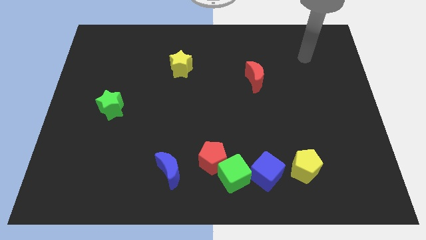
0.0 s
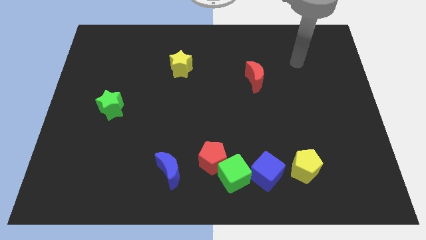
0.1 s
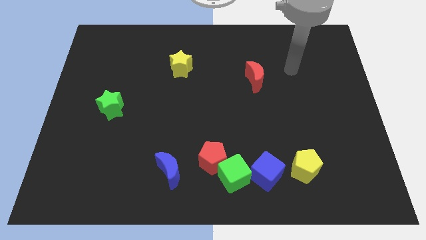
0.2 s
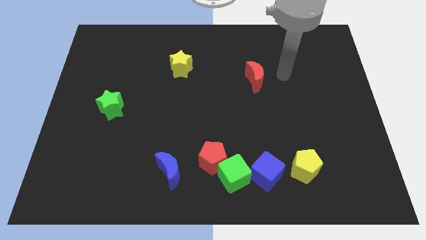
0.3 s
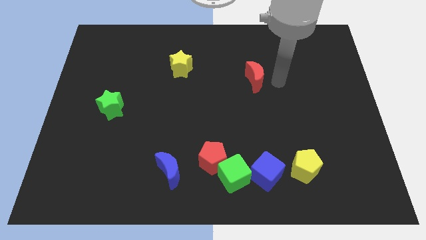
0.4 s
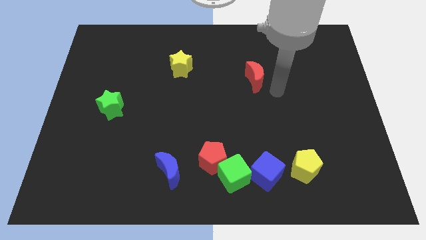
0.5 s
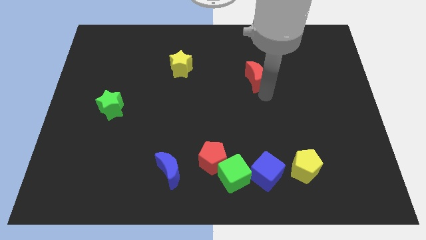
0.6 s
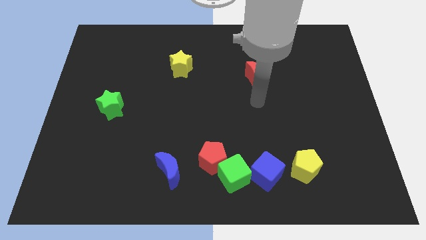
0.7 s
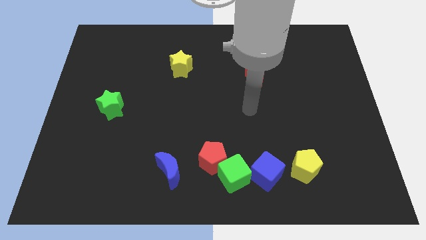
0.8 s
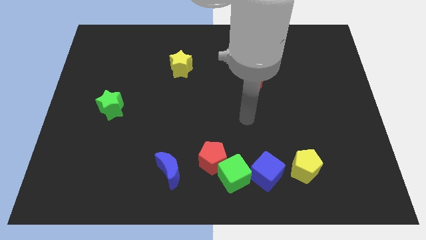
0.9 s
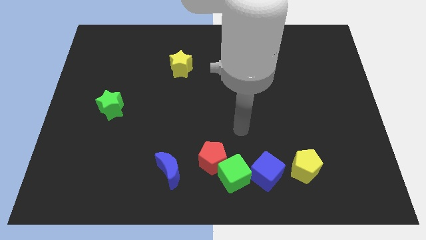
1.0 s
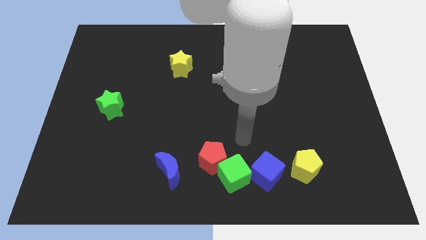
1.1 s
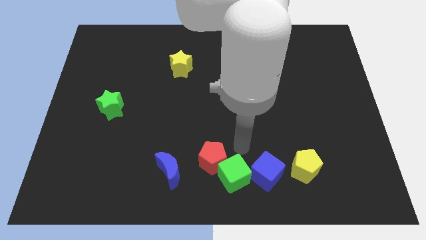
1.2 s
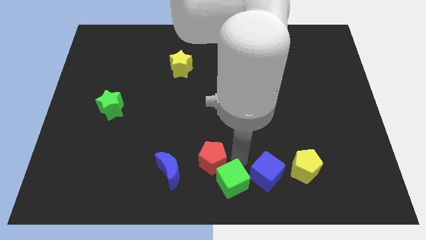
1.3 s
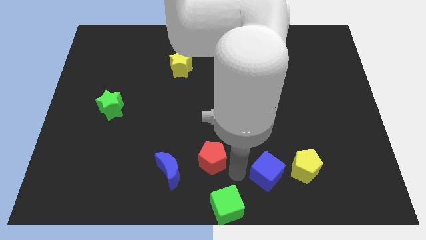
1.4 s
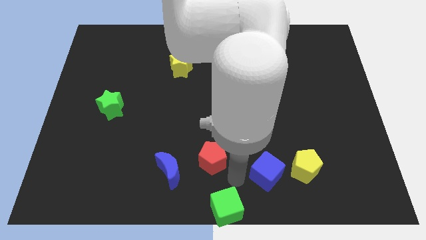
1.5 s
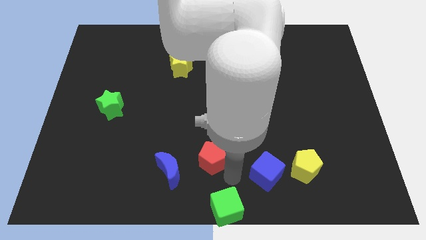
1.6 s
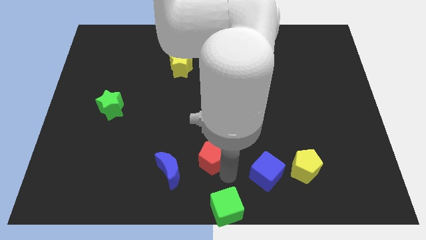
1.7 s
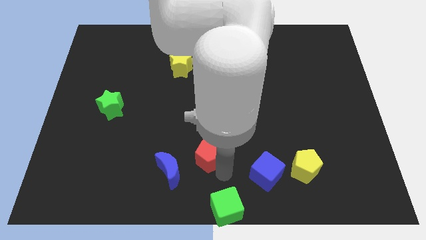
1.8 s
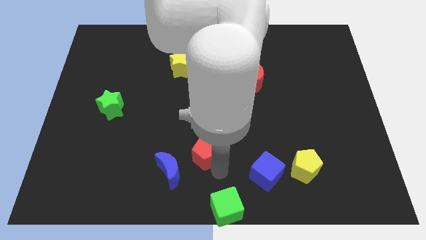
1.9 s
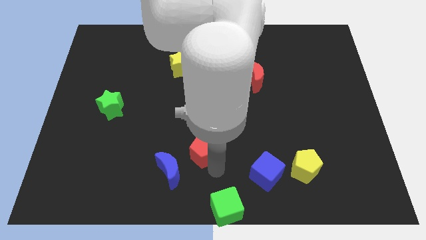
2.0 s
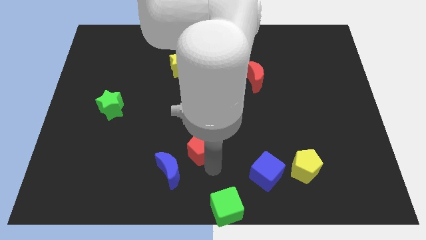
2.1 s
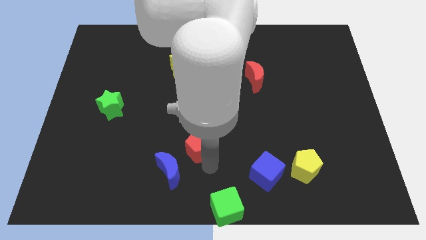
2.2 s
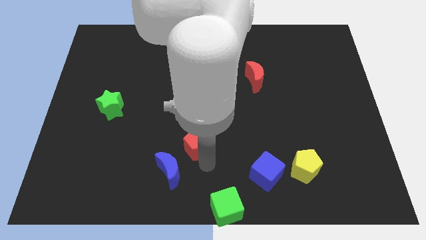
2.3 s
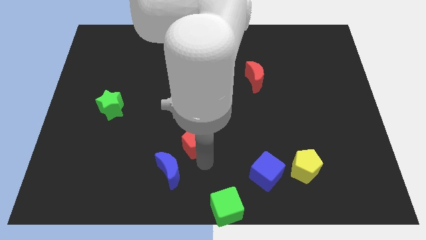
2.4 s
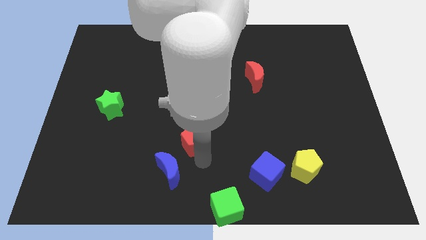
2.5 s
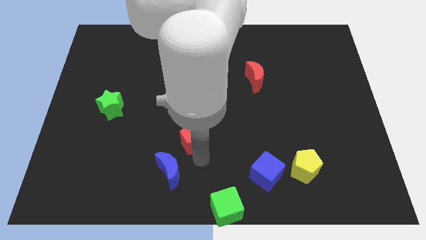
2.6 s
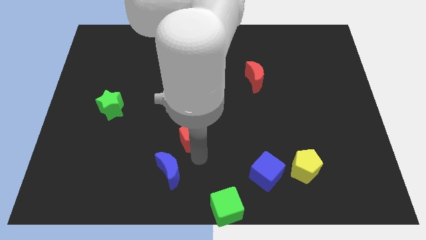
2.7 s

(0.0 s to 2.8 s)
slightly push the red pentagon upwards and then to the left

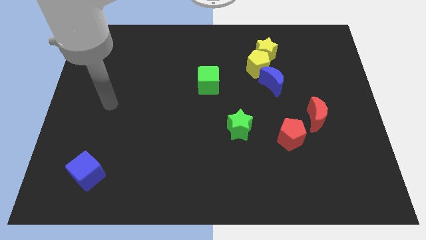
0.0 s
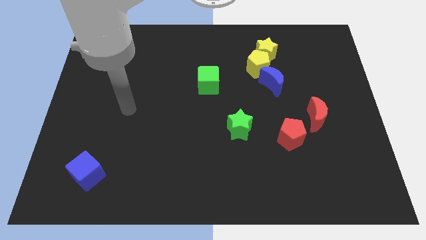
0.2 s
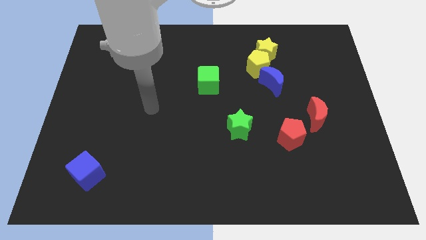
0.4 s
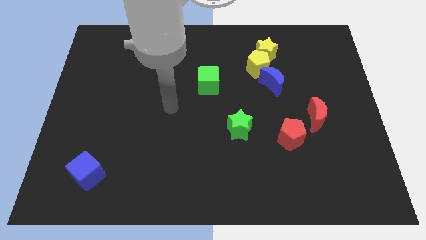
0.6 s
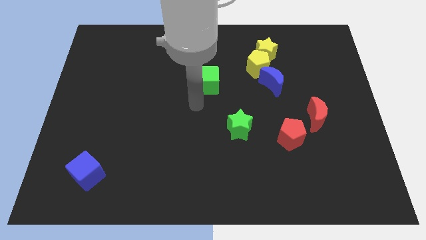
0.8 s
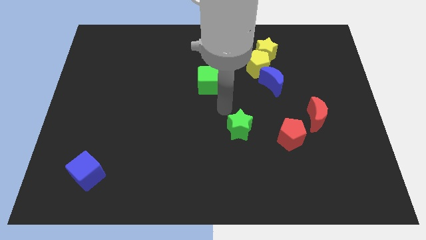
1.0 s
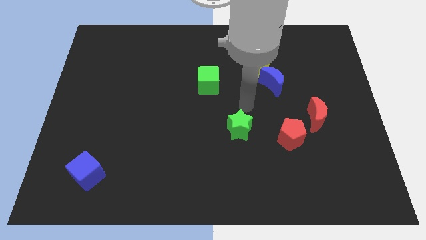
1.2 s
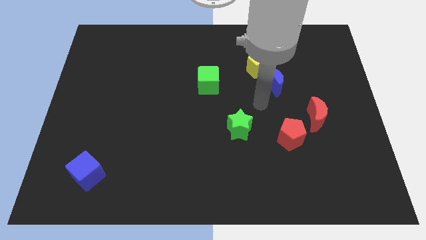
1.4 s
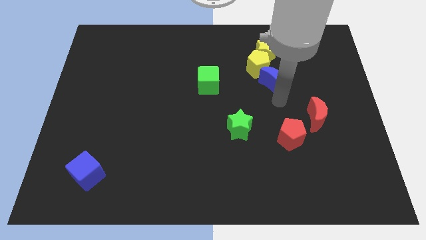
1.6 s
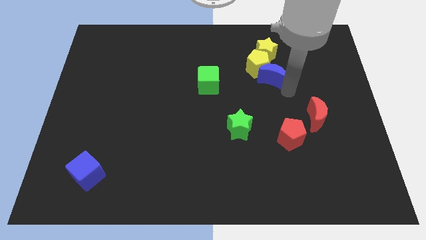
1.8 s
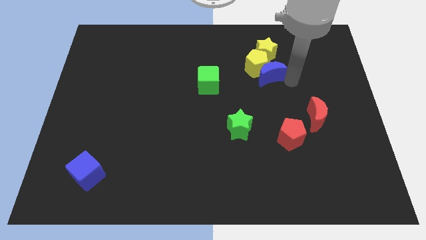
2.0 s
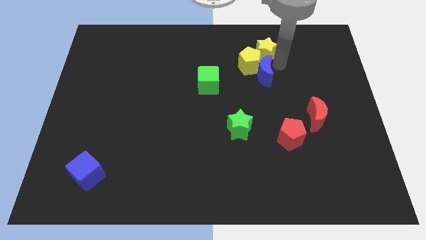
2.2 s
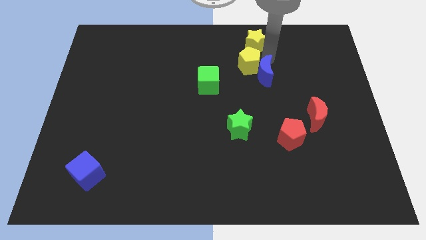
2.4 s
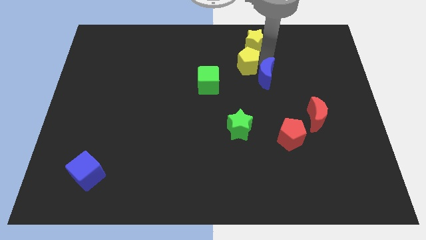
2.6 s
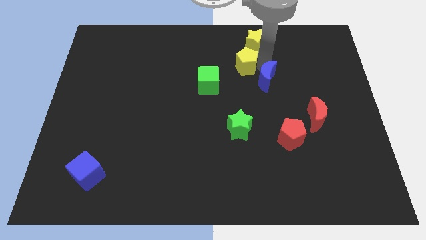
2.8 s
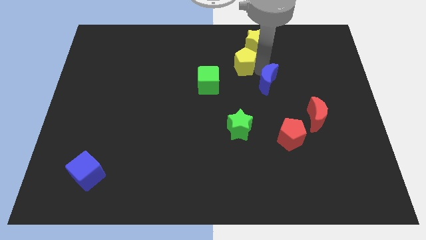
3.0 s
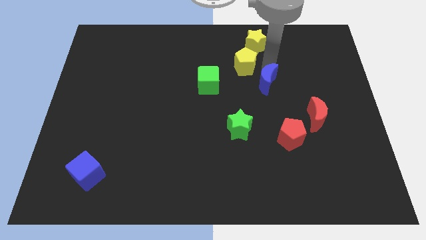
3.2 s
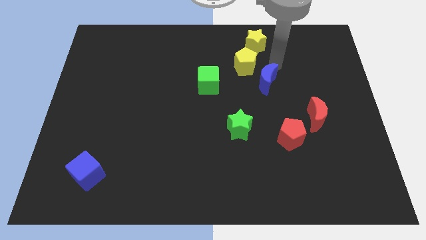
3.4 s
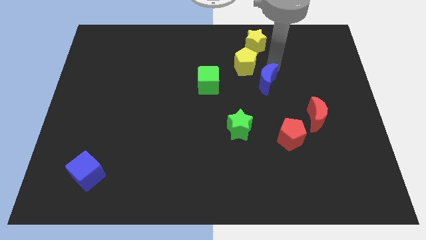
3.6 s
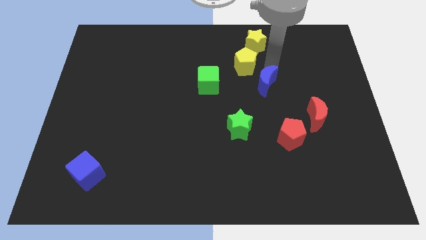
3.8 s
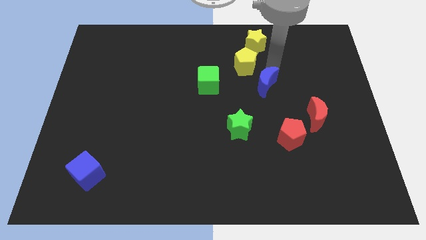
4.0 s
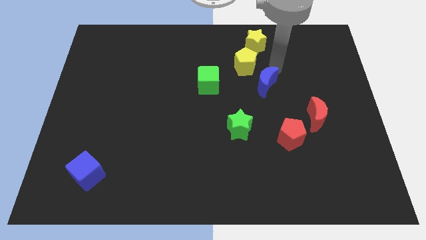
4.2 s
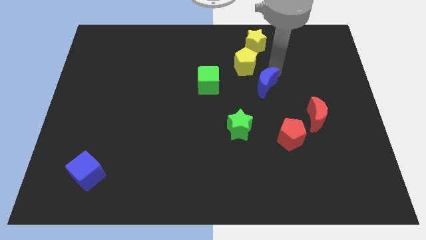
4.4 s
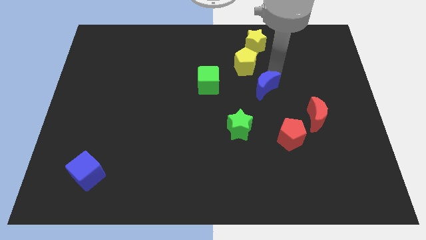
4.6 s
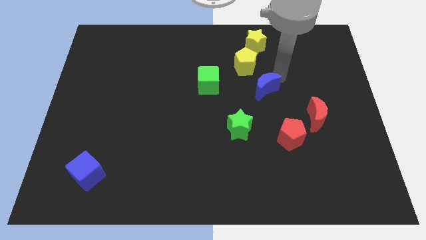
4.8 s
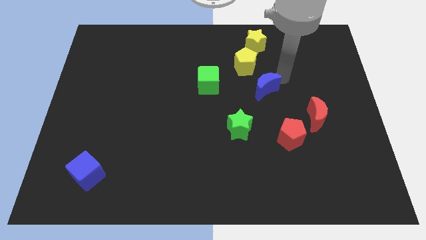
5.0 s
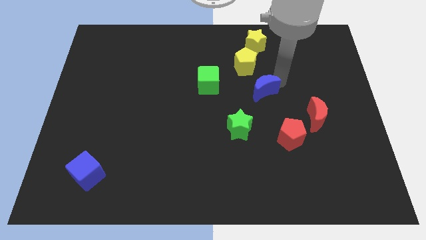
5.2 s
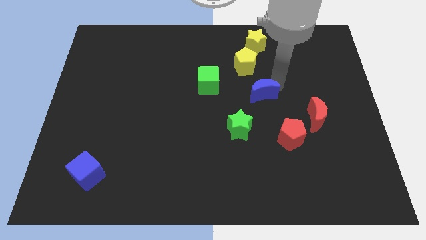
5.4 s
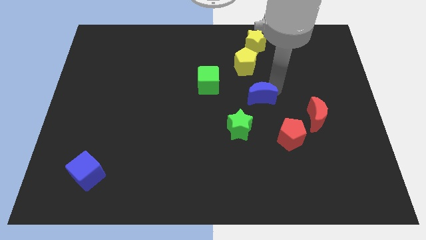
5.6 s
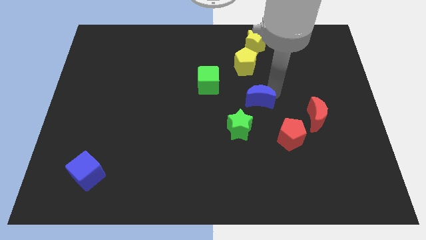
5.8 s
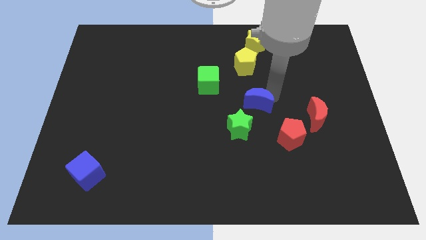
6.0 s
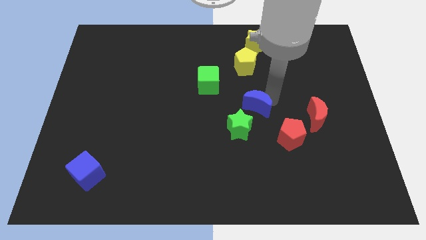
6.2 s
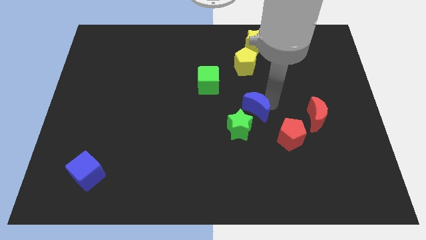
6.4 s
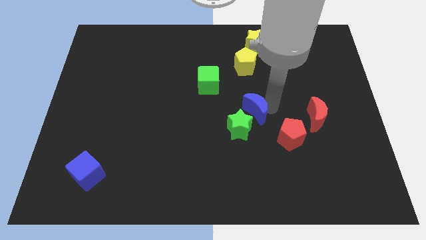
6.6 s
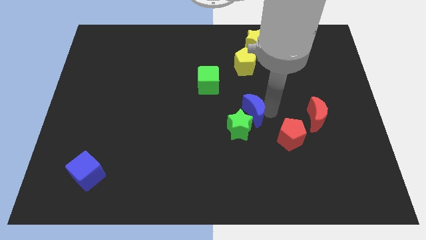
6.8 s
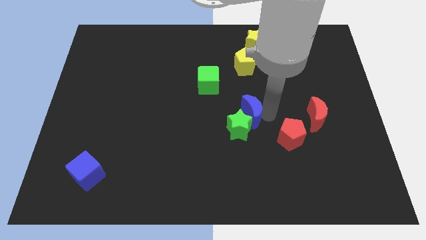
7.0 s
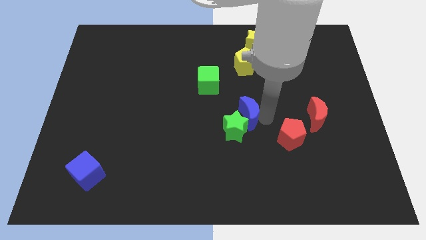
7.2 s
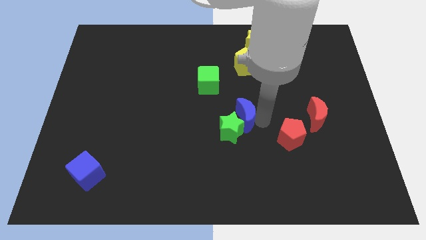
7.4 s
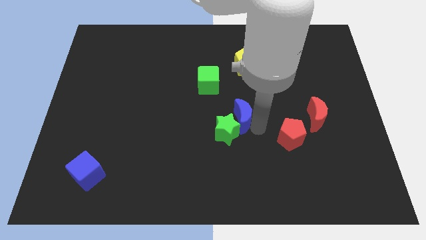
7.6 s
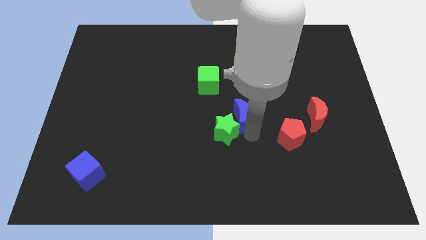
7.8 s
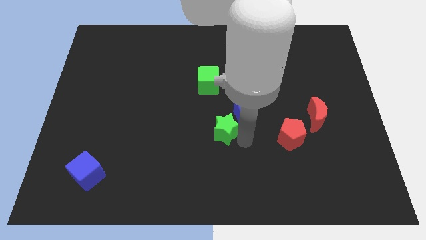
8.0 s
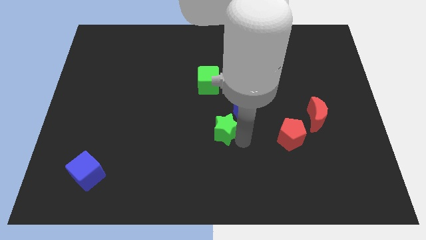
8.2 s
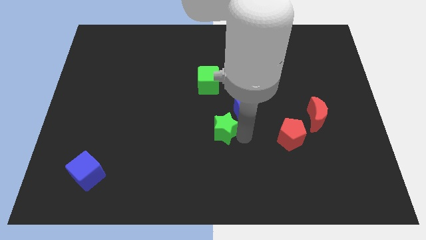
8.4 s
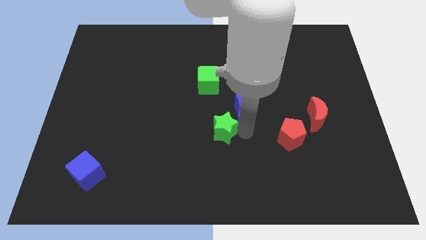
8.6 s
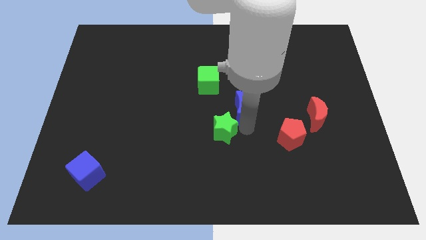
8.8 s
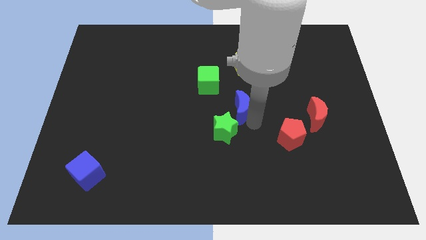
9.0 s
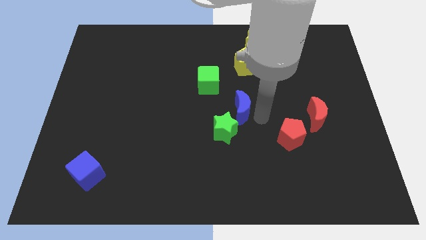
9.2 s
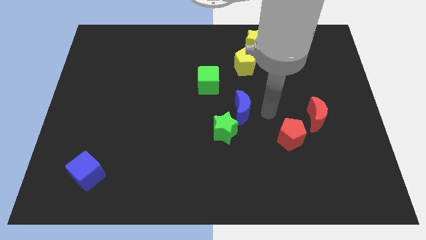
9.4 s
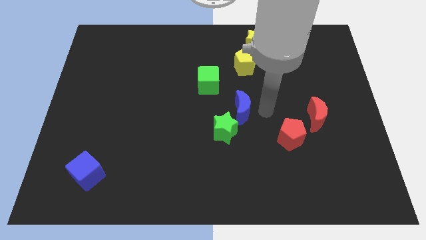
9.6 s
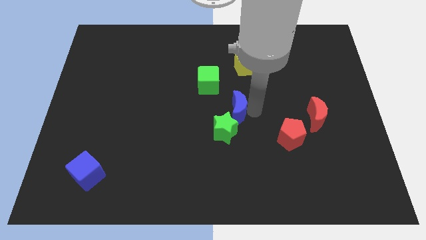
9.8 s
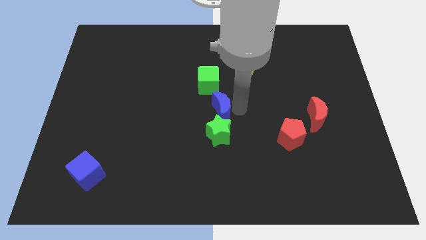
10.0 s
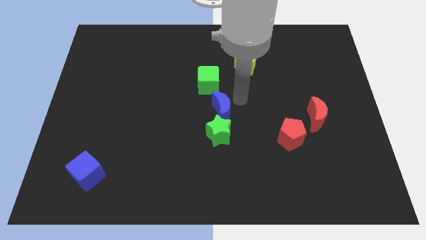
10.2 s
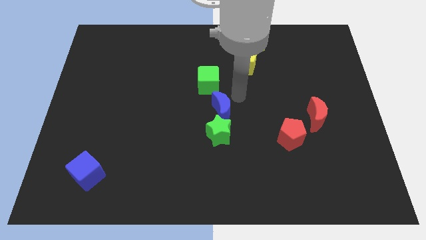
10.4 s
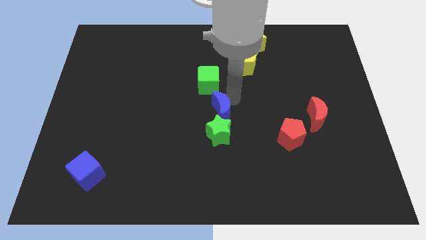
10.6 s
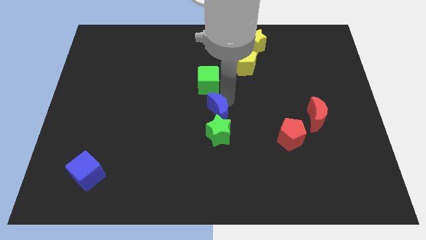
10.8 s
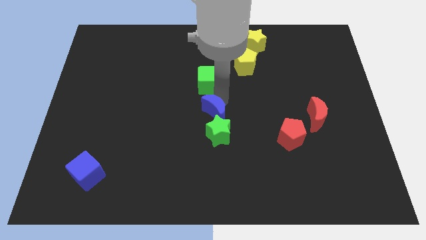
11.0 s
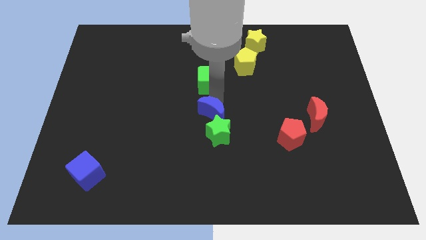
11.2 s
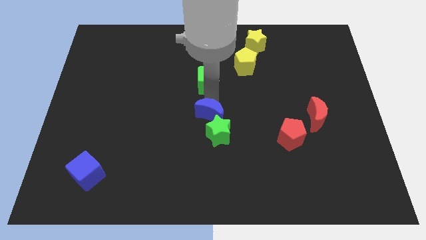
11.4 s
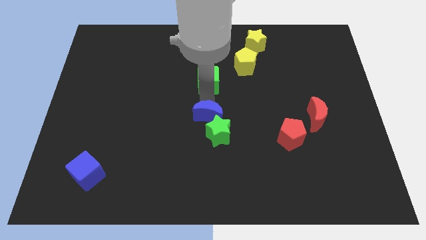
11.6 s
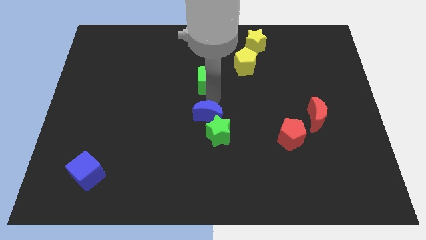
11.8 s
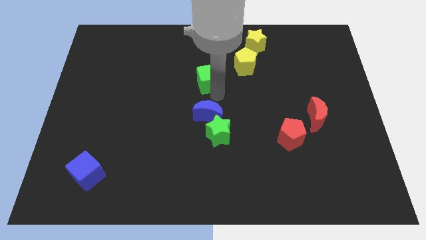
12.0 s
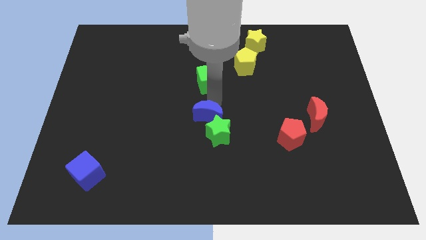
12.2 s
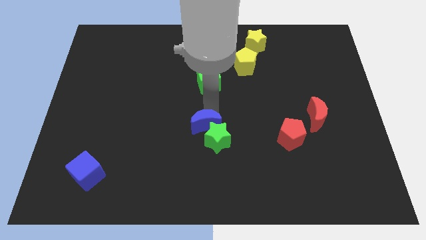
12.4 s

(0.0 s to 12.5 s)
push the blue moon down and to the left
